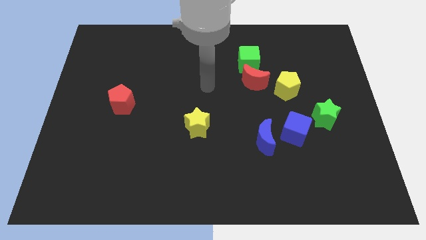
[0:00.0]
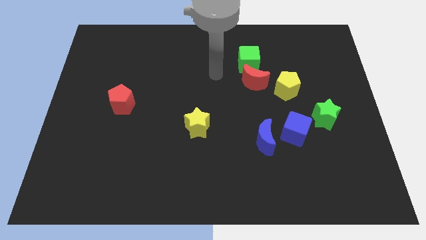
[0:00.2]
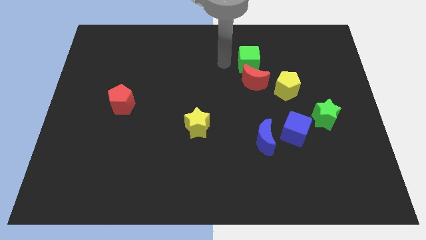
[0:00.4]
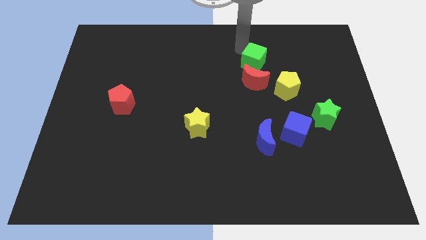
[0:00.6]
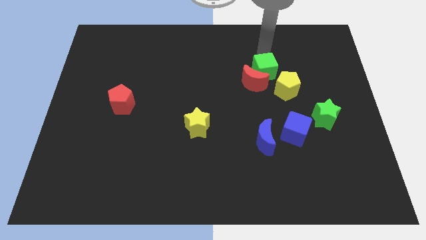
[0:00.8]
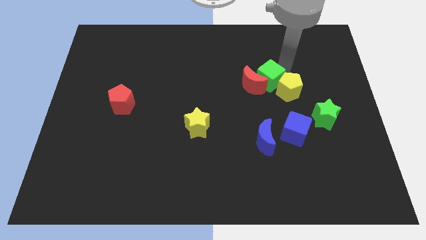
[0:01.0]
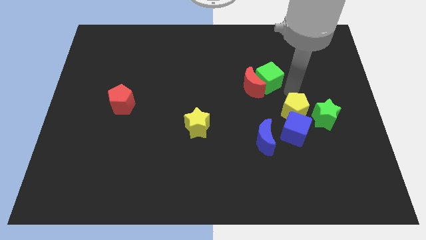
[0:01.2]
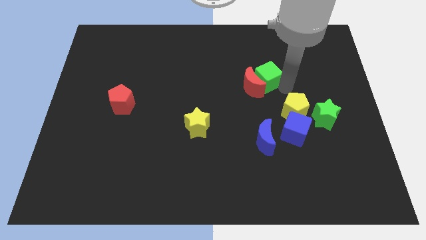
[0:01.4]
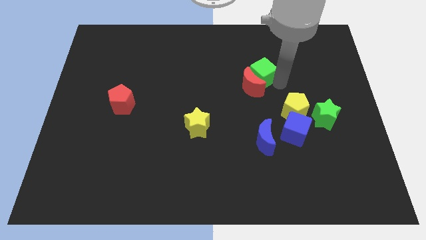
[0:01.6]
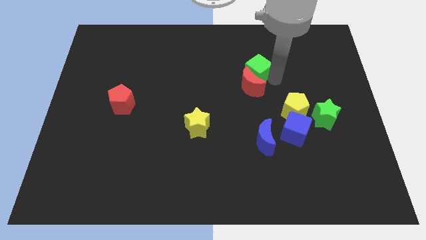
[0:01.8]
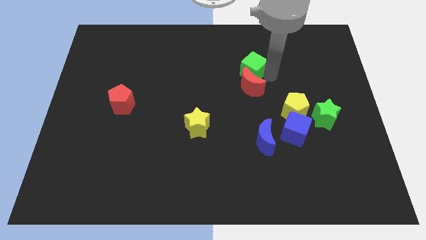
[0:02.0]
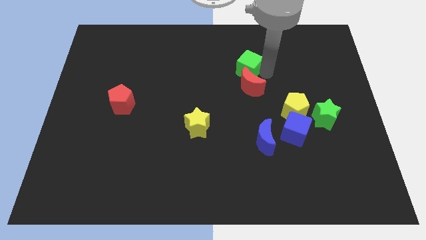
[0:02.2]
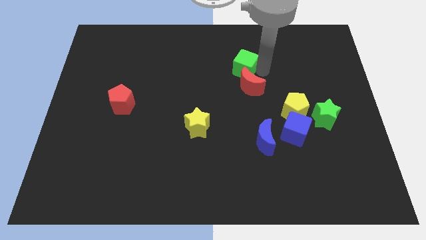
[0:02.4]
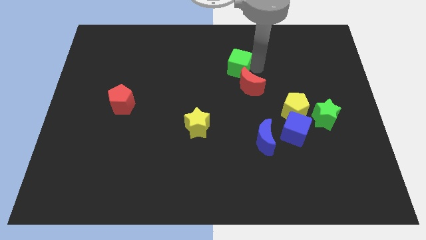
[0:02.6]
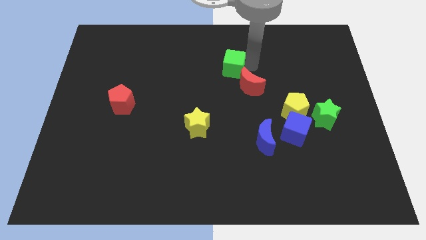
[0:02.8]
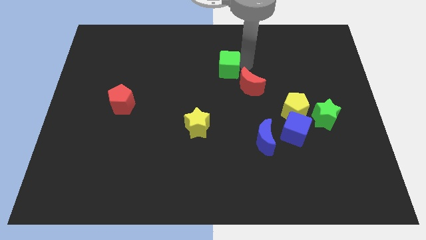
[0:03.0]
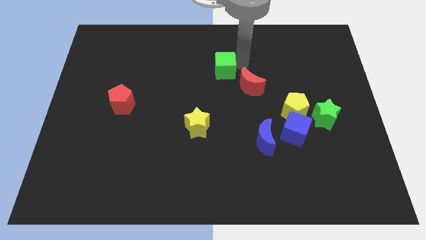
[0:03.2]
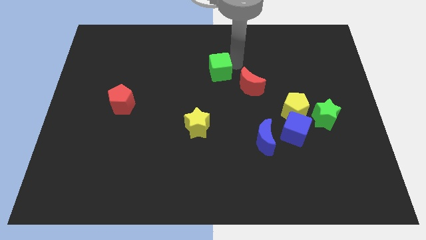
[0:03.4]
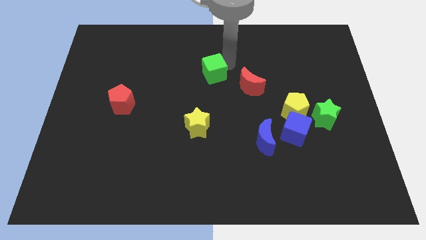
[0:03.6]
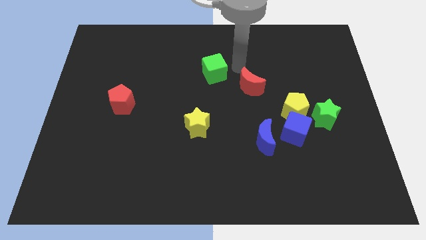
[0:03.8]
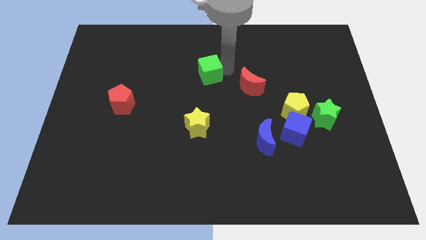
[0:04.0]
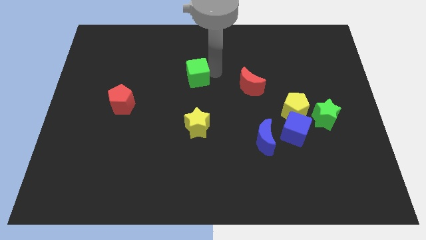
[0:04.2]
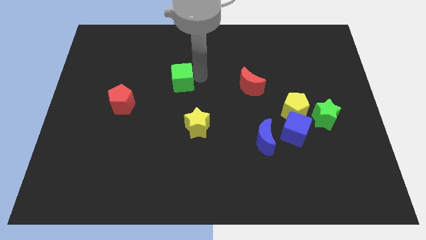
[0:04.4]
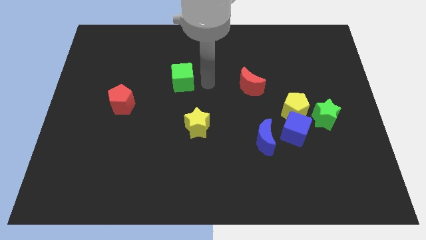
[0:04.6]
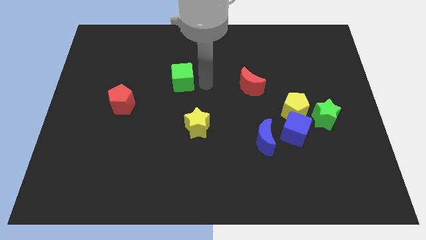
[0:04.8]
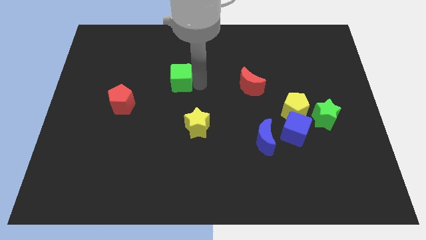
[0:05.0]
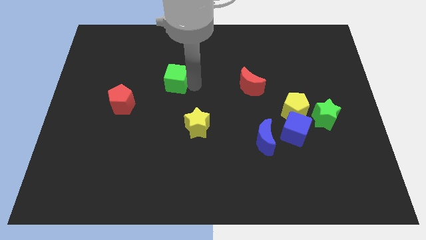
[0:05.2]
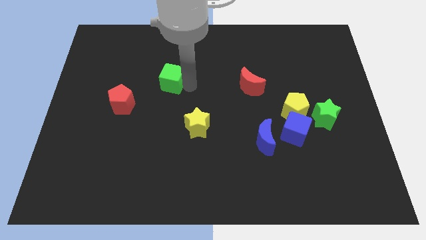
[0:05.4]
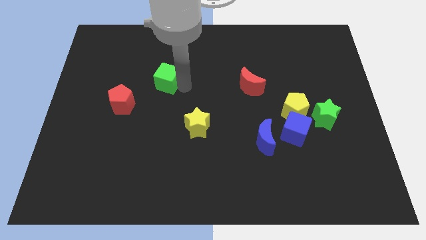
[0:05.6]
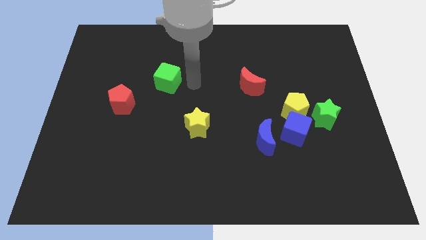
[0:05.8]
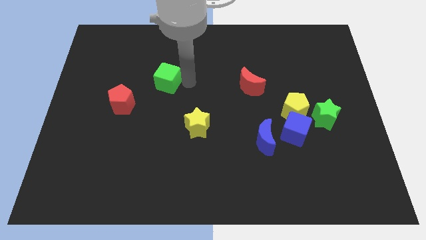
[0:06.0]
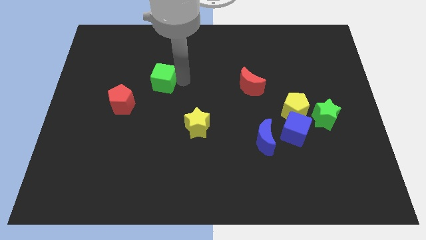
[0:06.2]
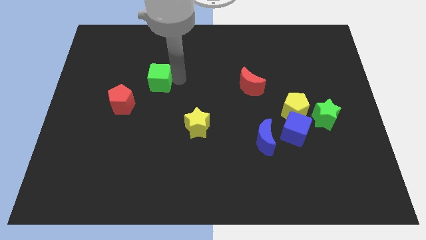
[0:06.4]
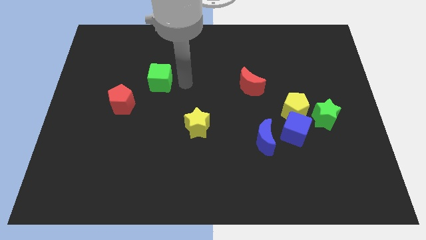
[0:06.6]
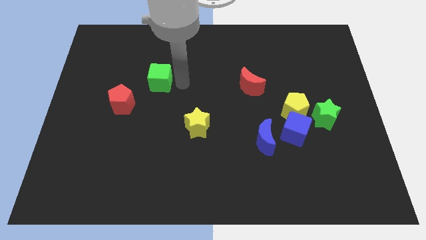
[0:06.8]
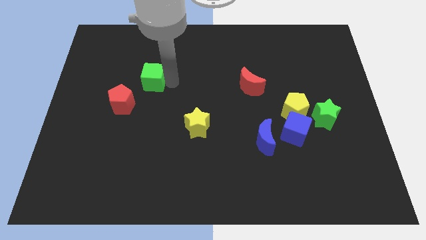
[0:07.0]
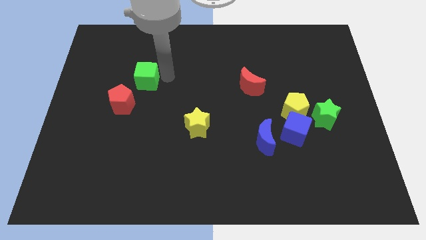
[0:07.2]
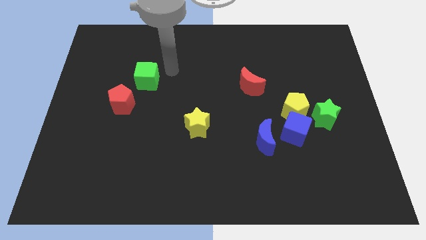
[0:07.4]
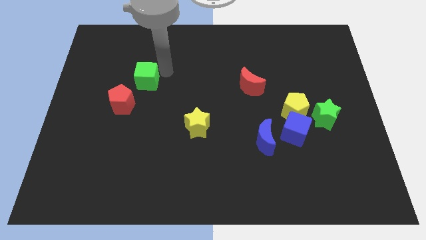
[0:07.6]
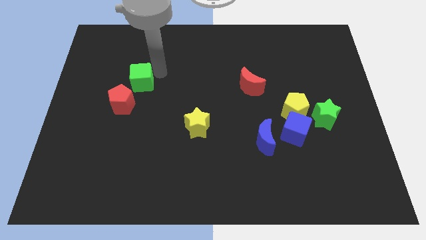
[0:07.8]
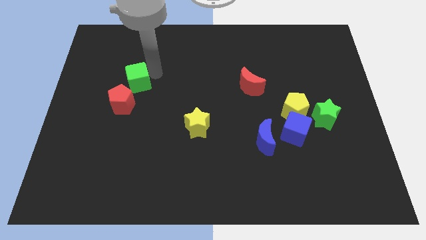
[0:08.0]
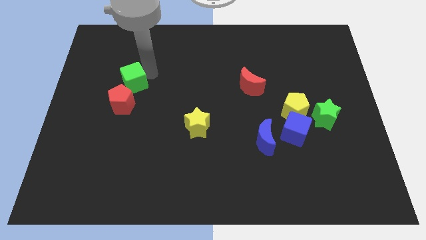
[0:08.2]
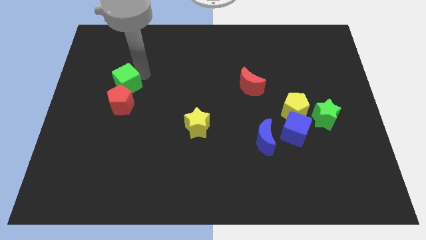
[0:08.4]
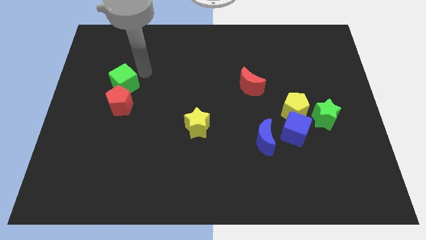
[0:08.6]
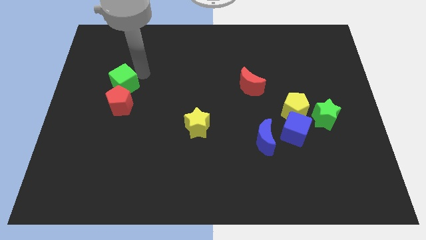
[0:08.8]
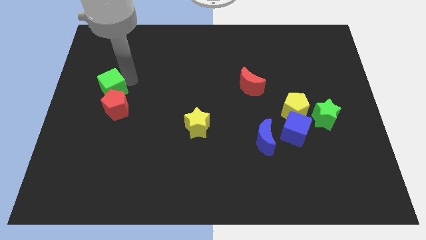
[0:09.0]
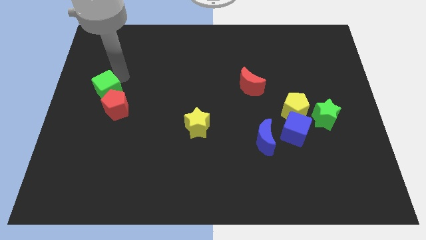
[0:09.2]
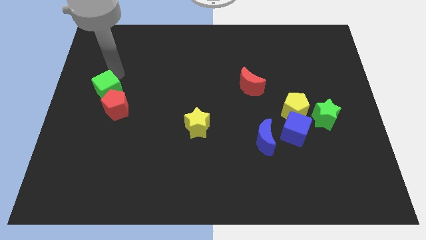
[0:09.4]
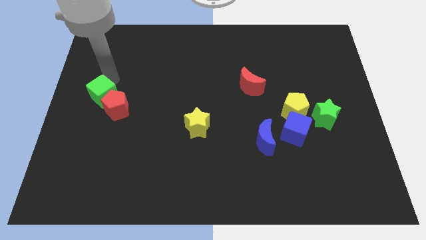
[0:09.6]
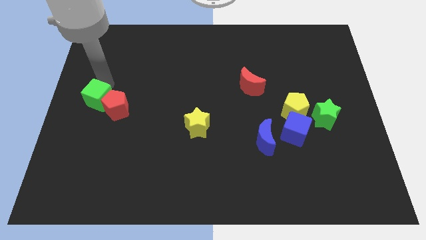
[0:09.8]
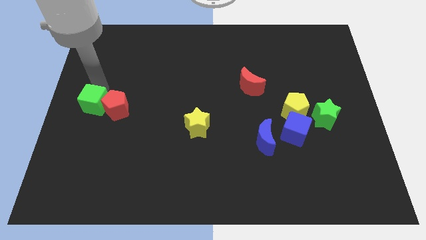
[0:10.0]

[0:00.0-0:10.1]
move the green cube to the bottom left of the red pentagon

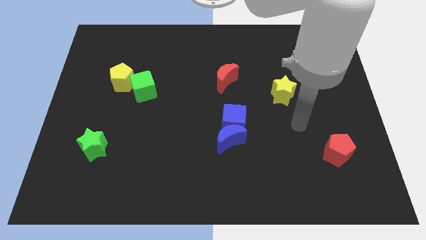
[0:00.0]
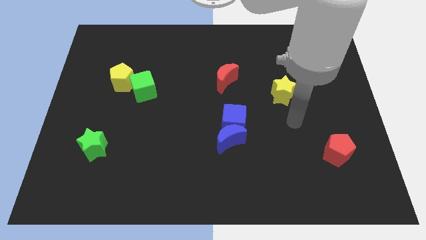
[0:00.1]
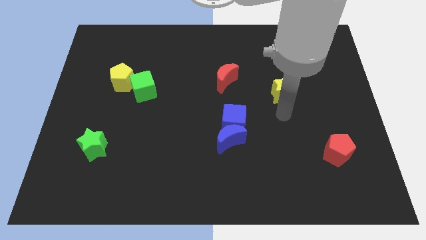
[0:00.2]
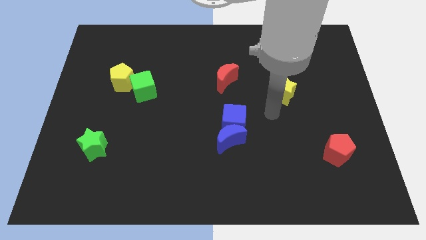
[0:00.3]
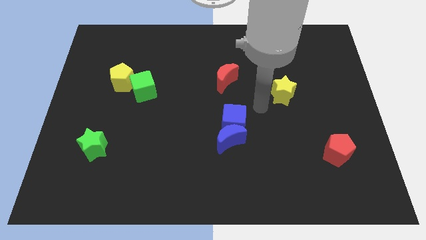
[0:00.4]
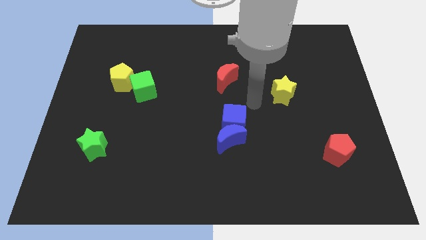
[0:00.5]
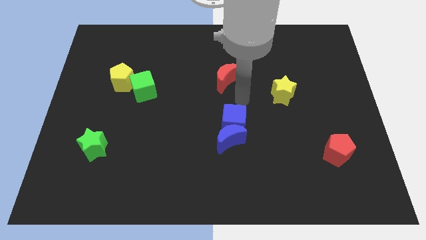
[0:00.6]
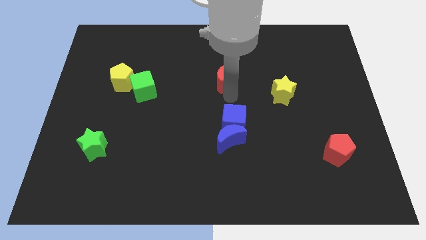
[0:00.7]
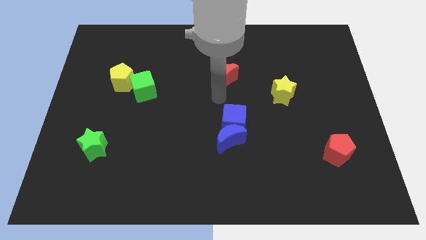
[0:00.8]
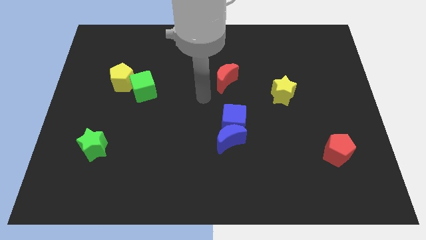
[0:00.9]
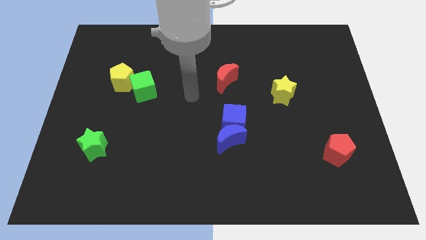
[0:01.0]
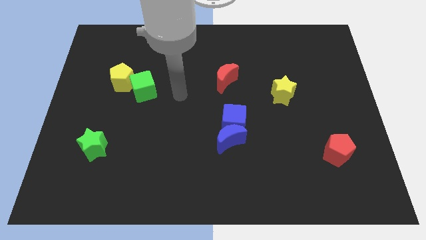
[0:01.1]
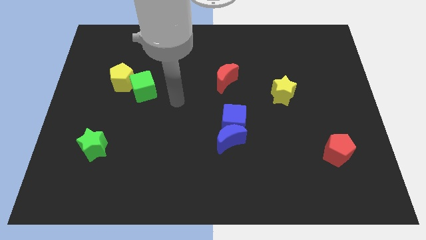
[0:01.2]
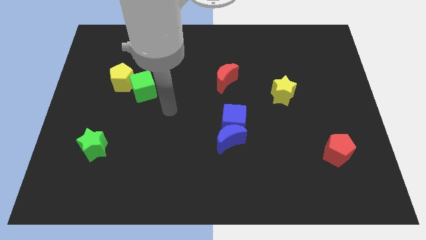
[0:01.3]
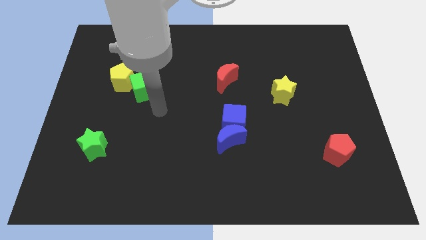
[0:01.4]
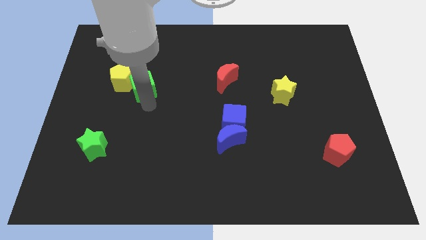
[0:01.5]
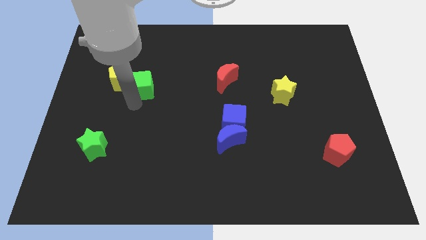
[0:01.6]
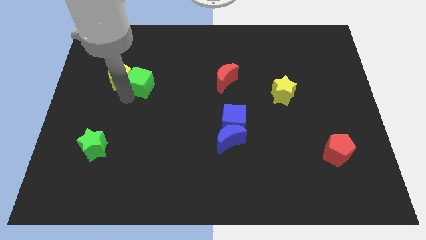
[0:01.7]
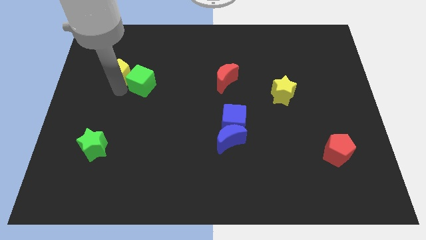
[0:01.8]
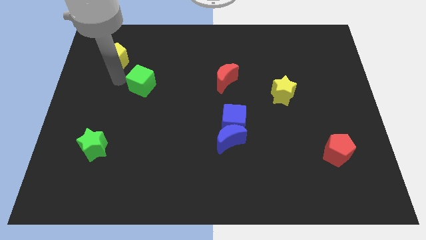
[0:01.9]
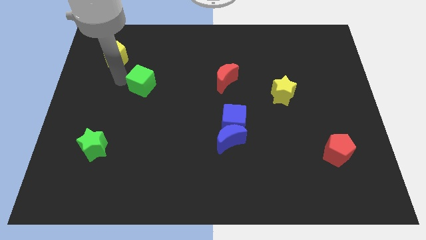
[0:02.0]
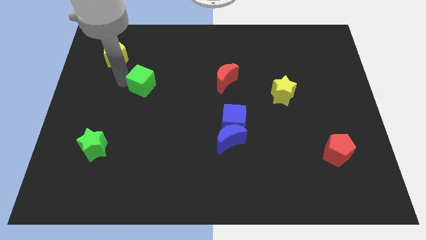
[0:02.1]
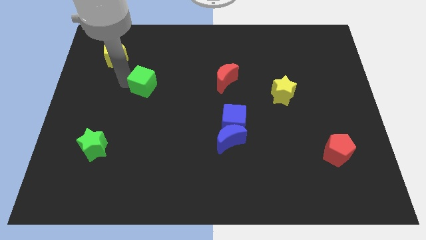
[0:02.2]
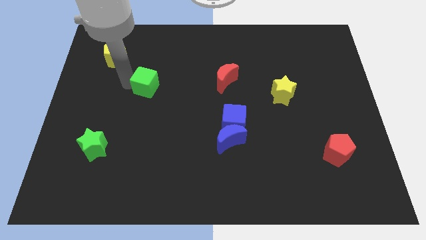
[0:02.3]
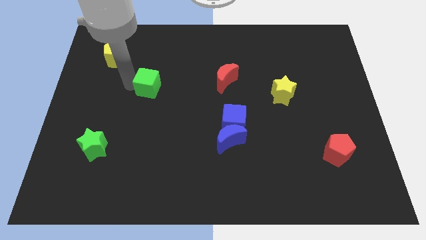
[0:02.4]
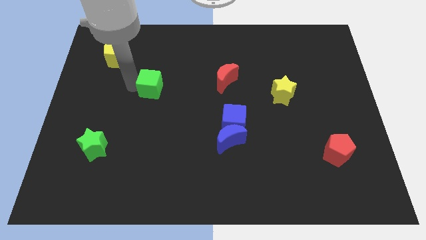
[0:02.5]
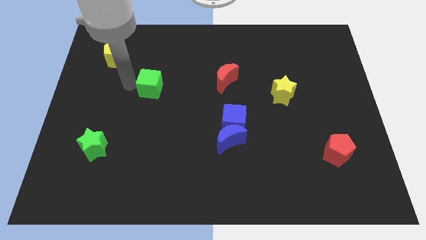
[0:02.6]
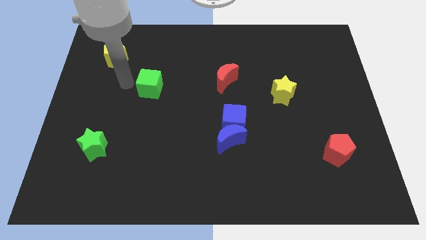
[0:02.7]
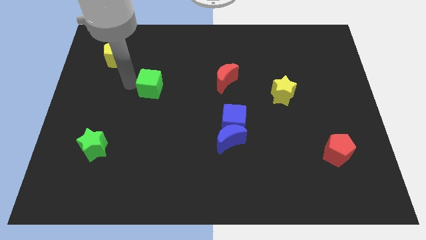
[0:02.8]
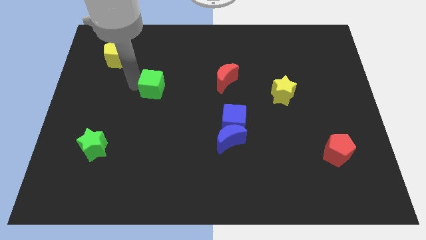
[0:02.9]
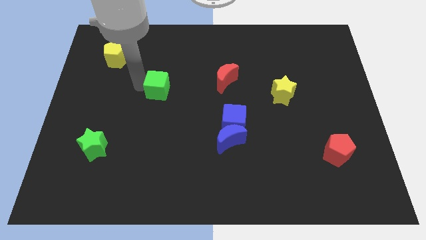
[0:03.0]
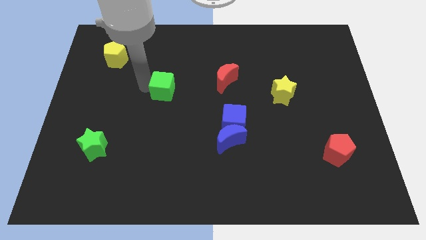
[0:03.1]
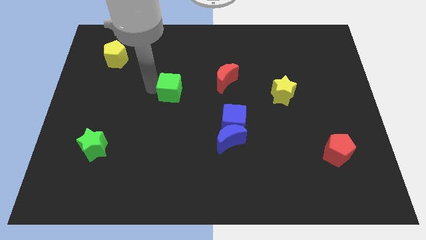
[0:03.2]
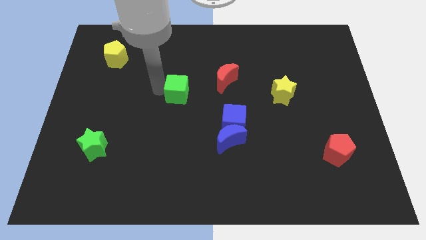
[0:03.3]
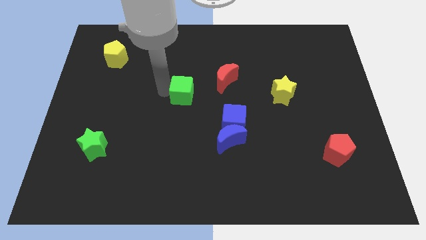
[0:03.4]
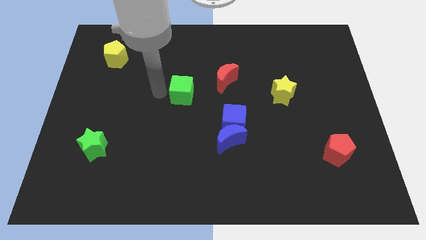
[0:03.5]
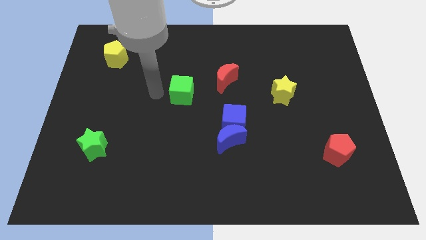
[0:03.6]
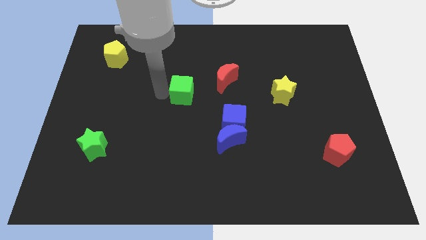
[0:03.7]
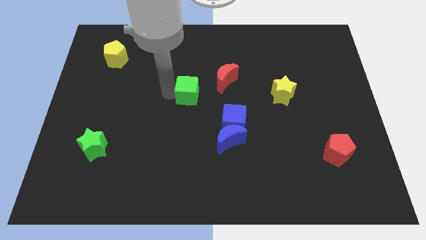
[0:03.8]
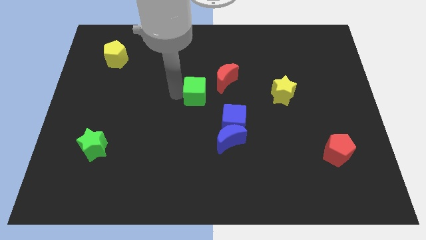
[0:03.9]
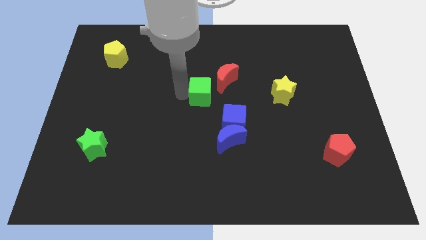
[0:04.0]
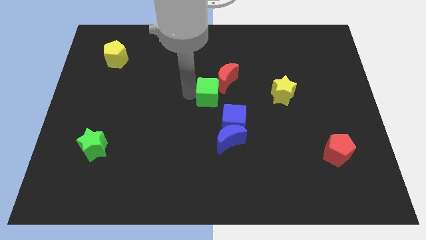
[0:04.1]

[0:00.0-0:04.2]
move the green cube to the top side of the blue moon
